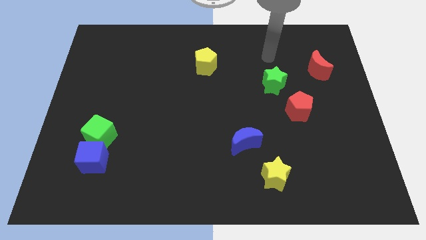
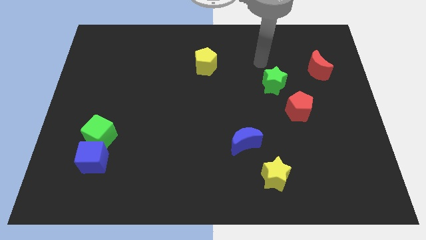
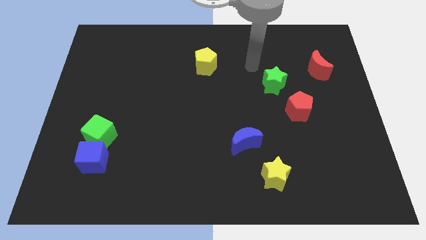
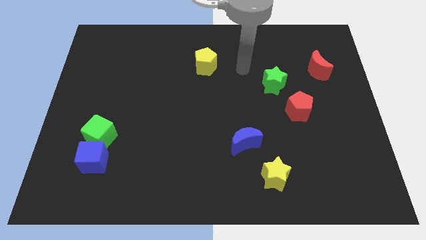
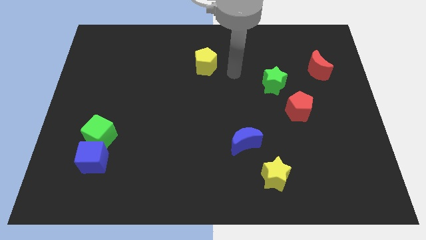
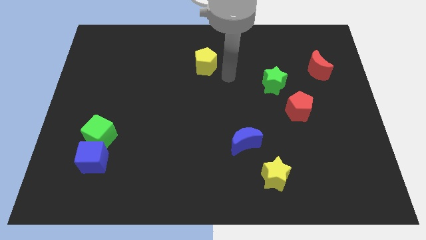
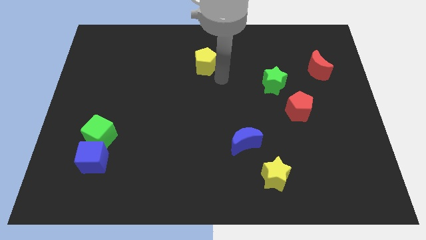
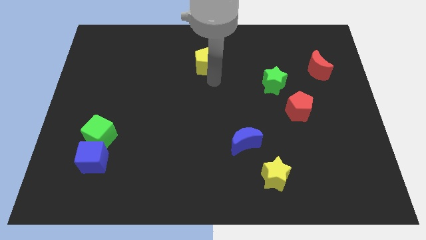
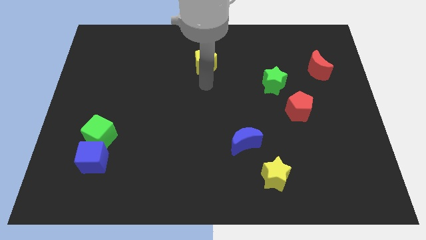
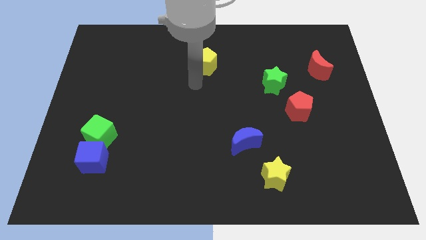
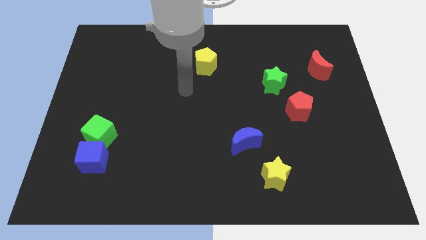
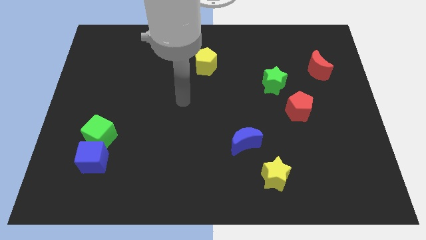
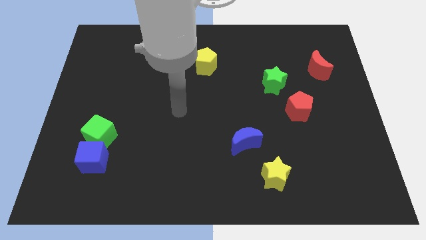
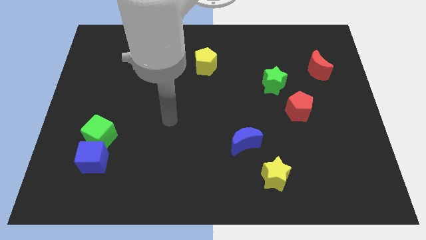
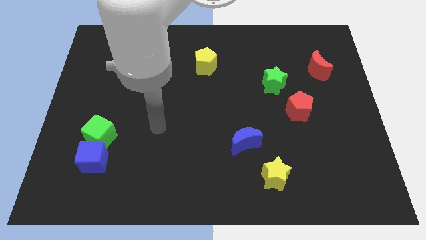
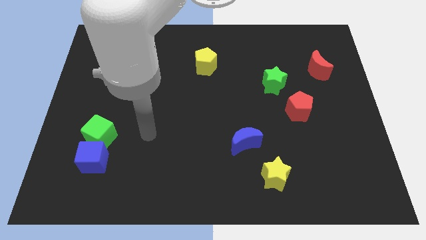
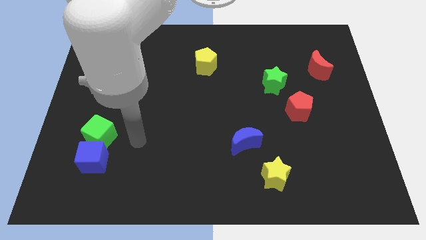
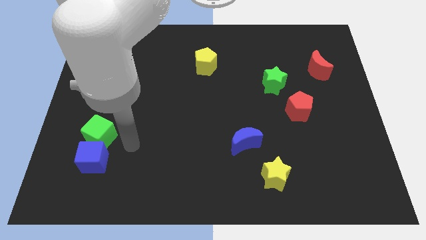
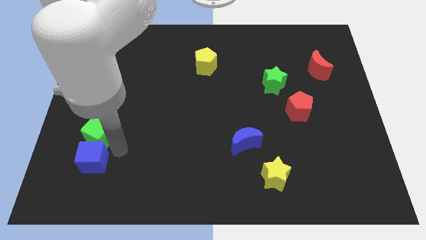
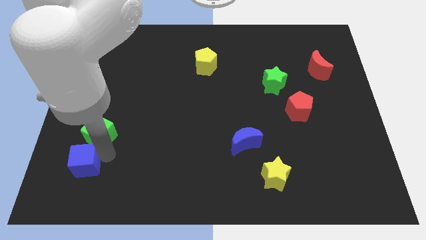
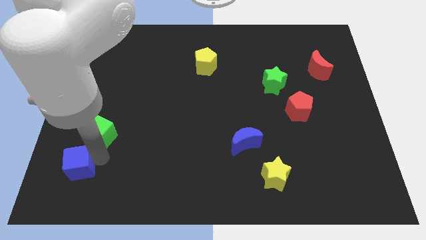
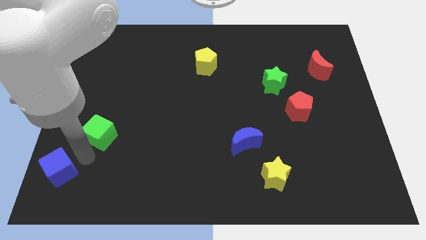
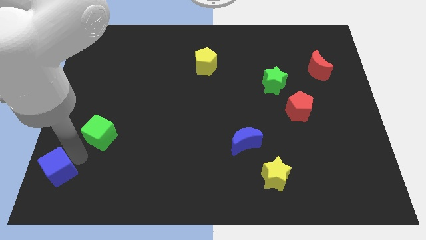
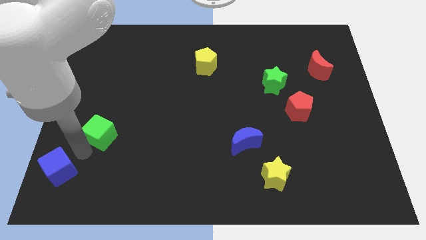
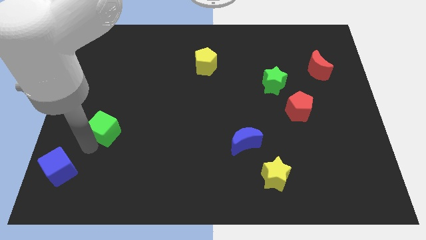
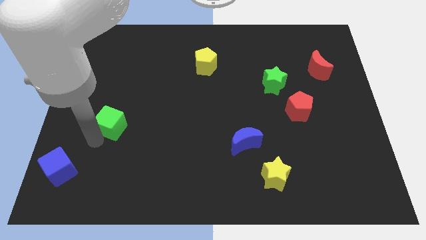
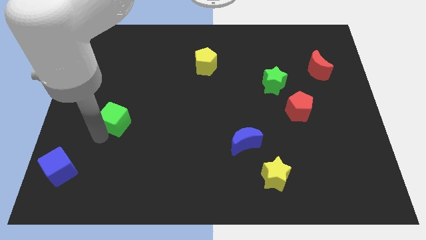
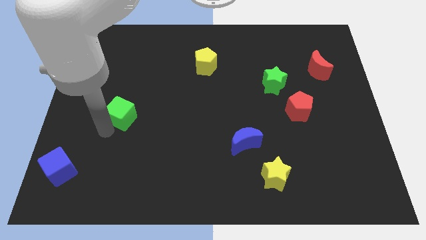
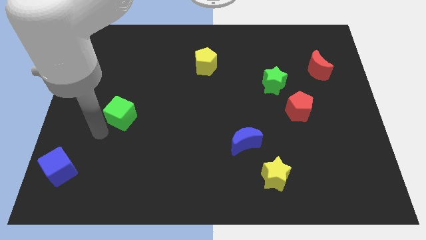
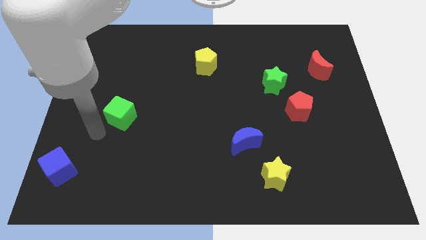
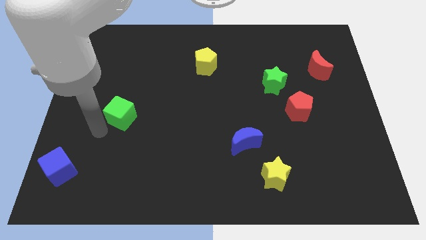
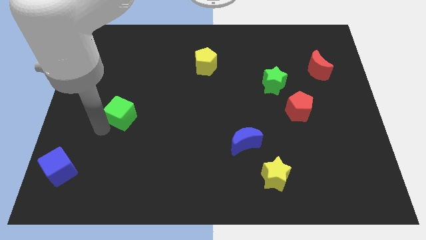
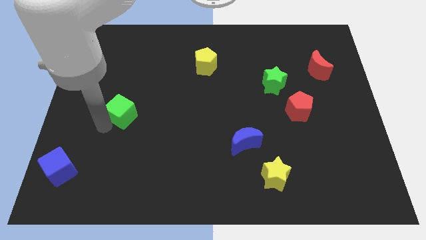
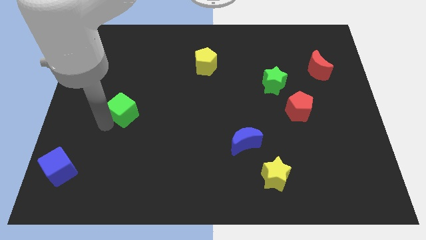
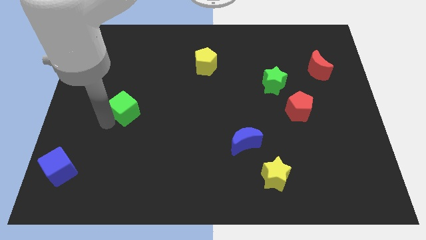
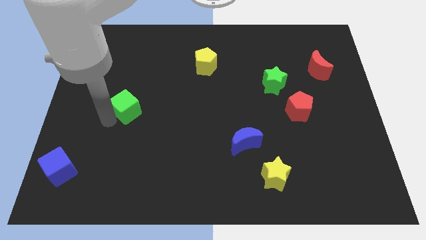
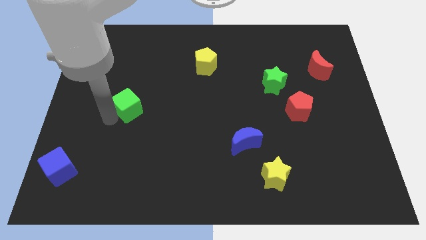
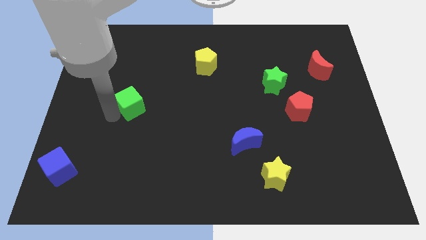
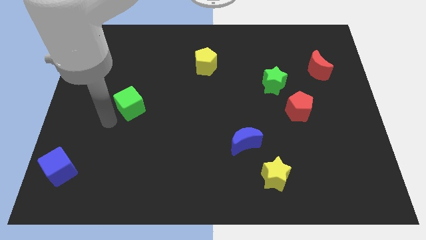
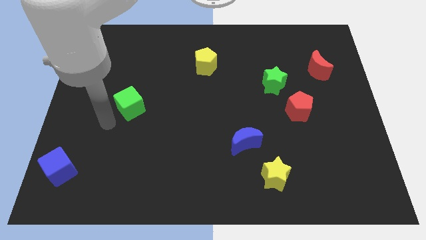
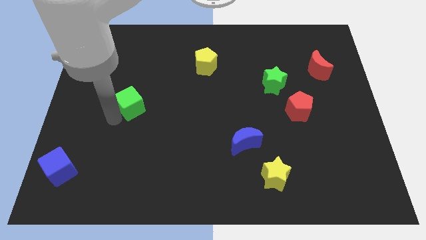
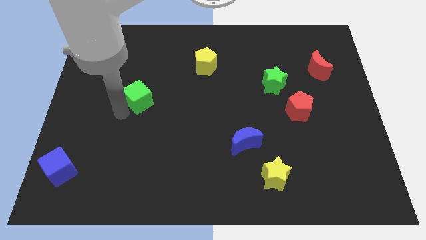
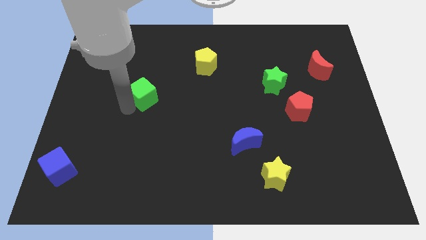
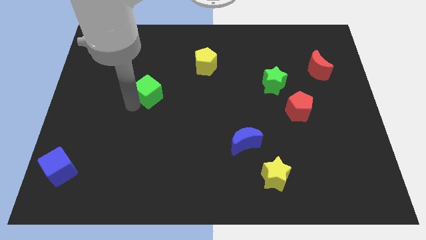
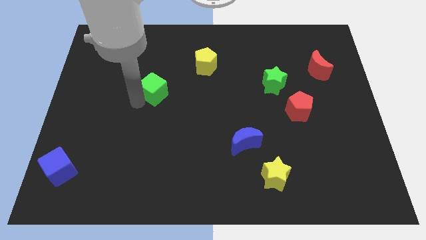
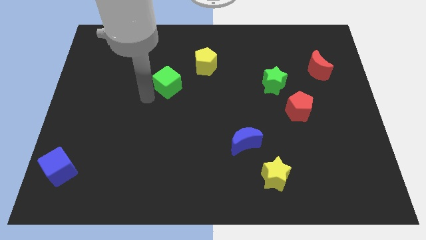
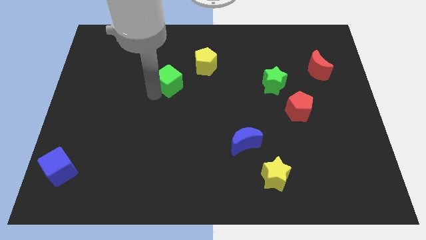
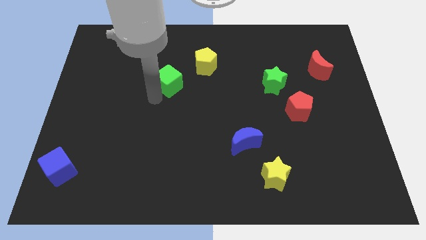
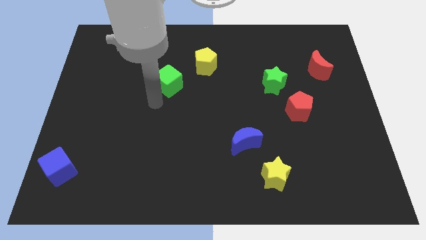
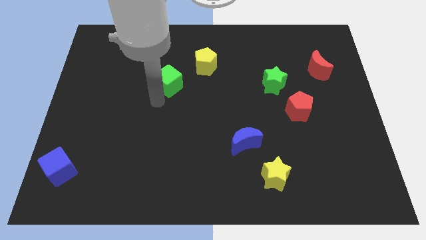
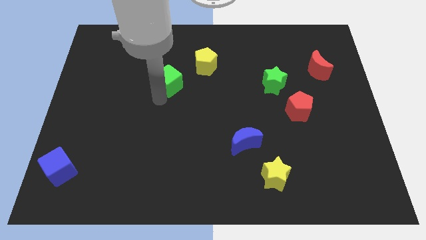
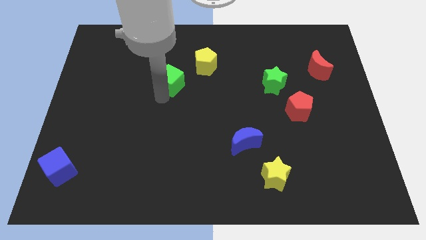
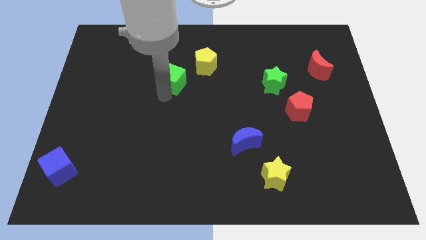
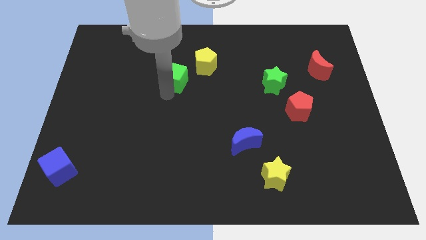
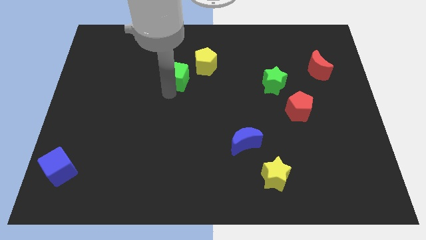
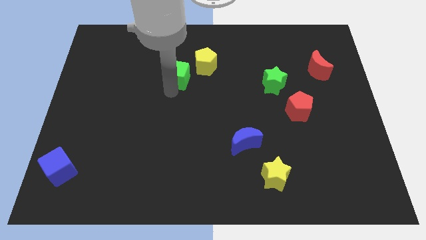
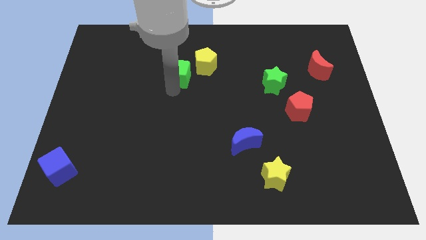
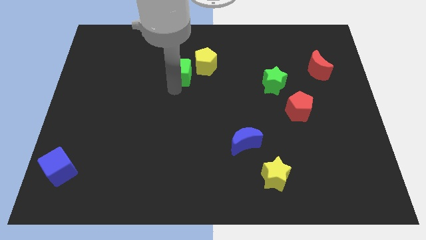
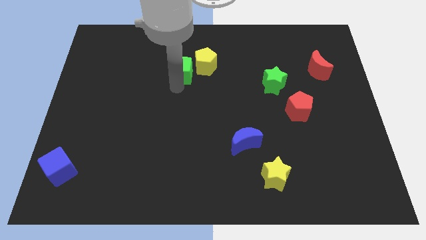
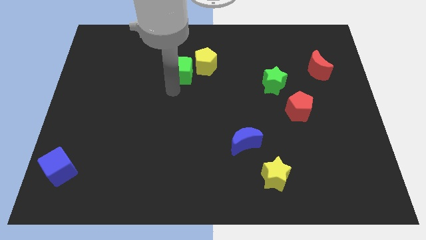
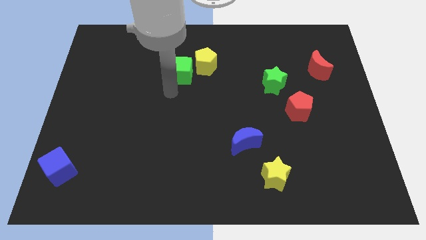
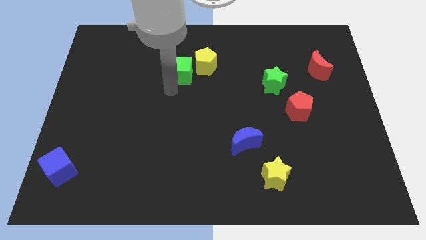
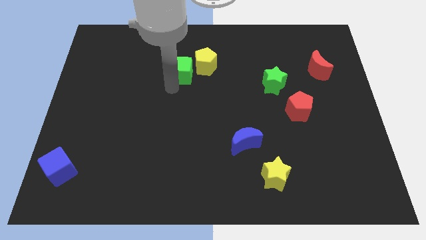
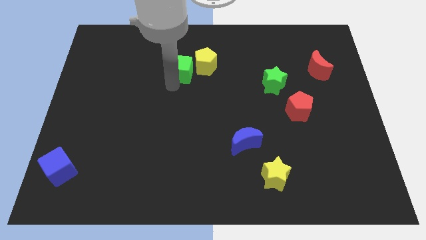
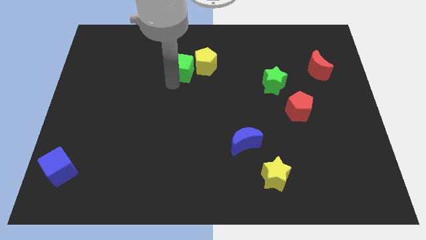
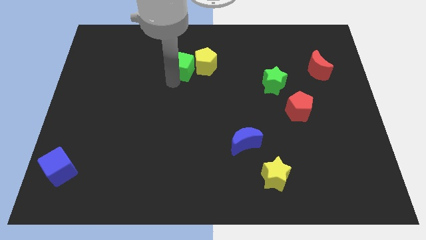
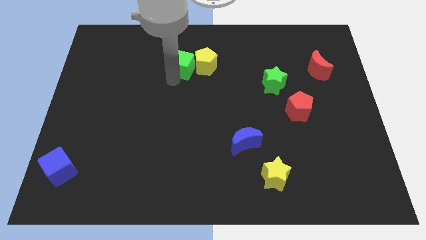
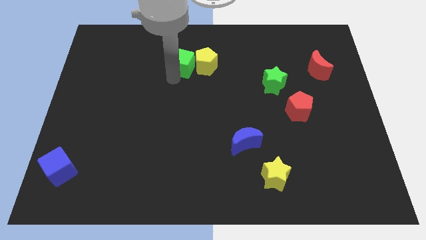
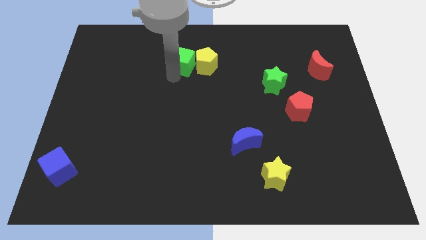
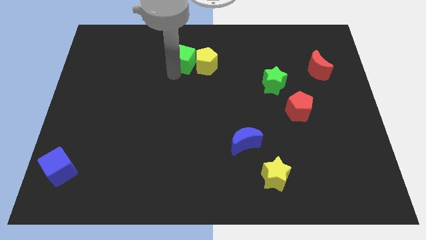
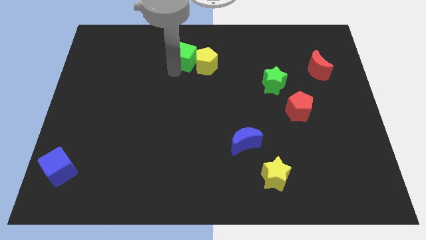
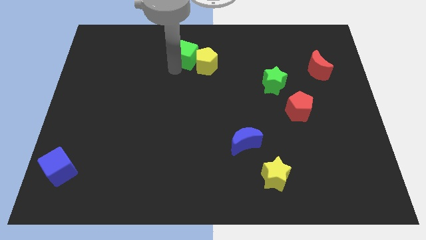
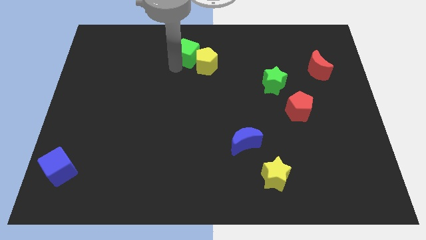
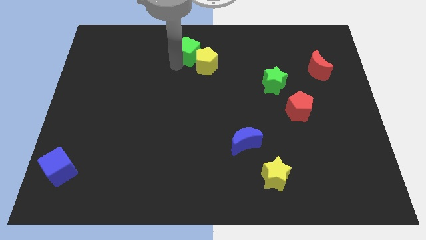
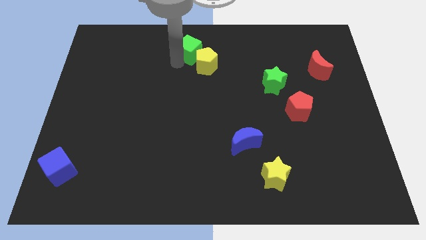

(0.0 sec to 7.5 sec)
push the green cube to the top side
